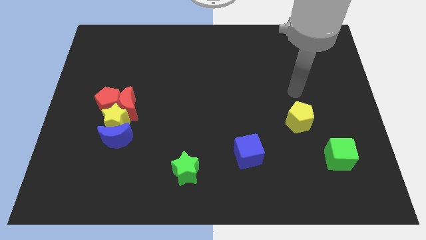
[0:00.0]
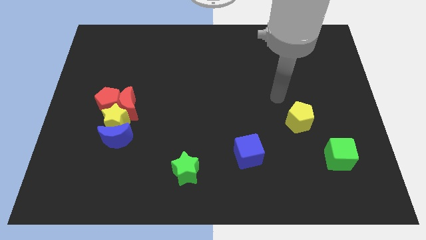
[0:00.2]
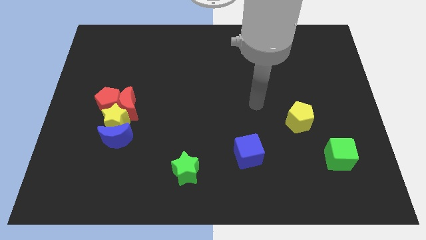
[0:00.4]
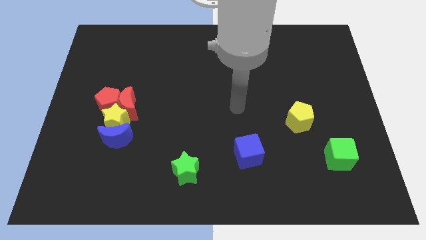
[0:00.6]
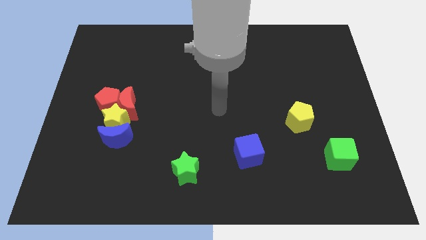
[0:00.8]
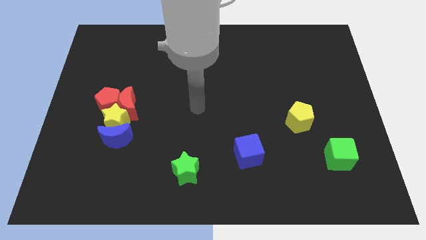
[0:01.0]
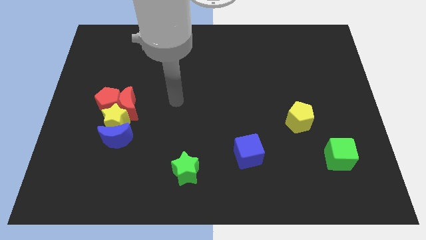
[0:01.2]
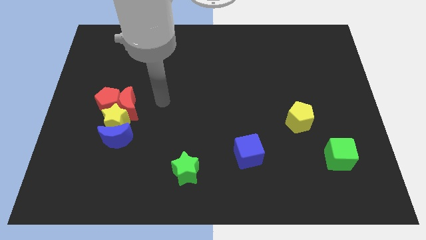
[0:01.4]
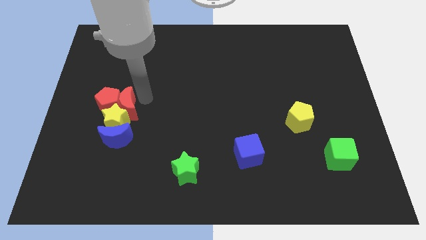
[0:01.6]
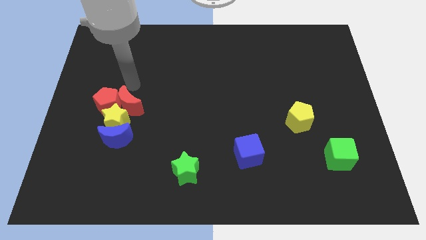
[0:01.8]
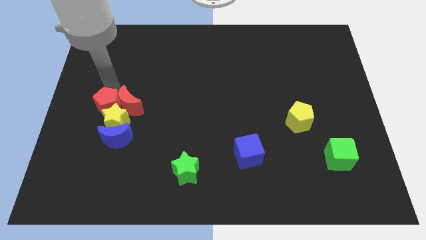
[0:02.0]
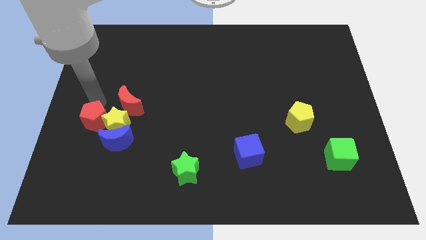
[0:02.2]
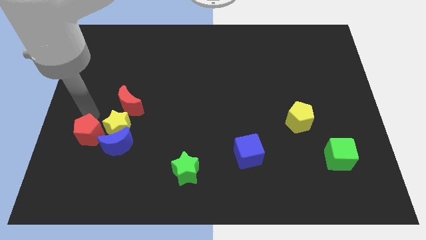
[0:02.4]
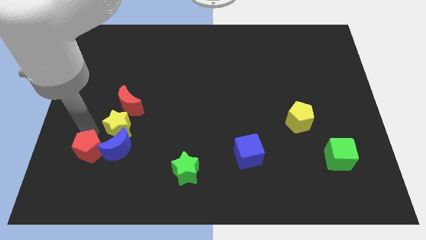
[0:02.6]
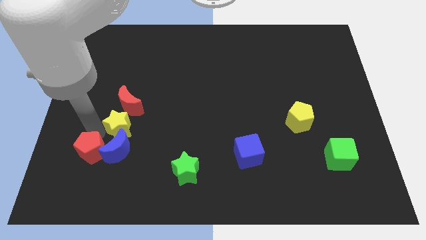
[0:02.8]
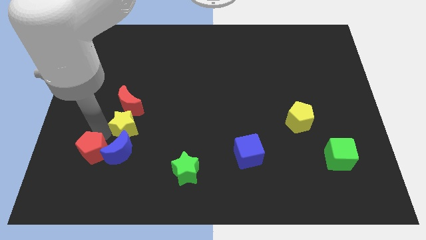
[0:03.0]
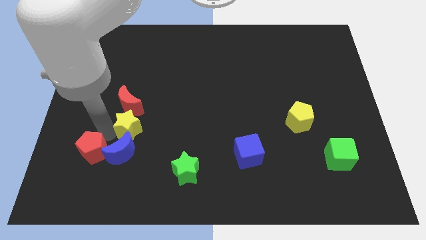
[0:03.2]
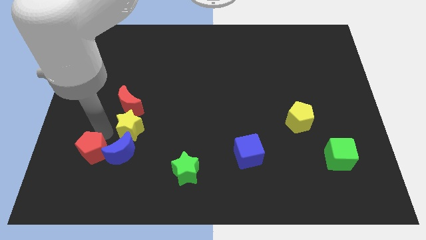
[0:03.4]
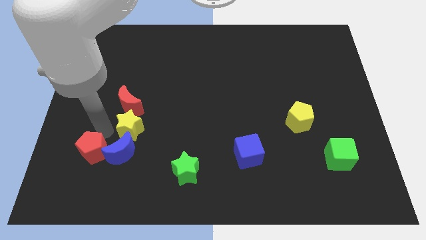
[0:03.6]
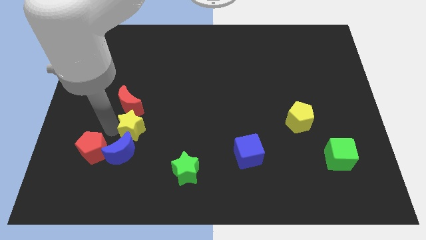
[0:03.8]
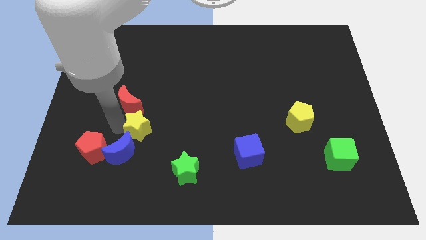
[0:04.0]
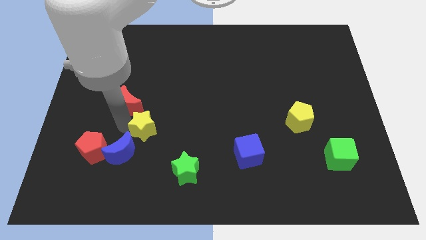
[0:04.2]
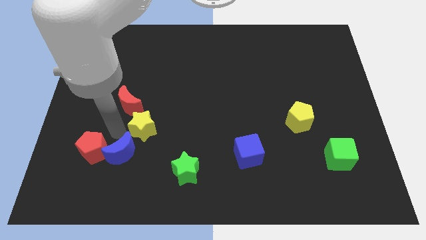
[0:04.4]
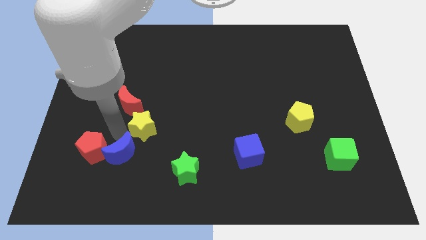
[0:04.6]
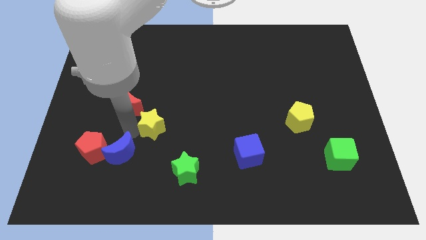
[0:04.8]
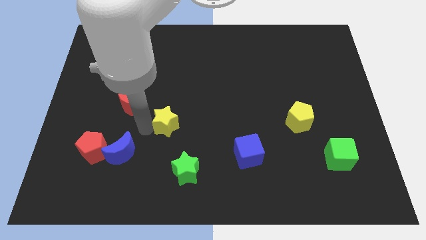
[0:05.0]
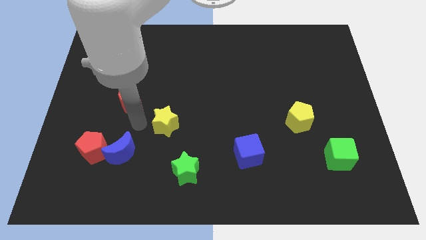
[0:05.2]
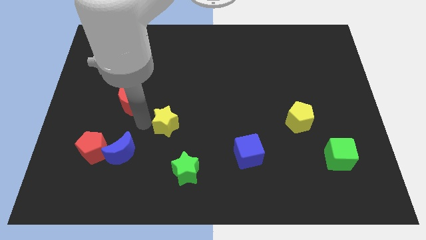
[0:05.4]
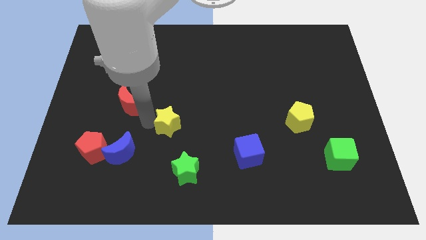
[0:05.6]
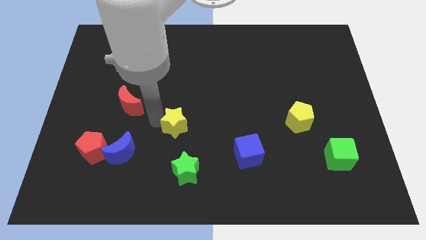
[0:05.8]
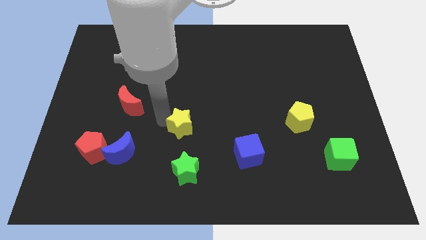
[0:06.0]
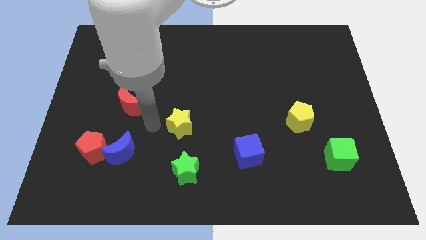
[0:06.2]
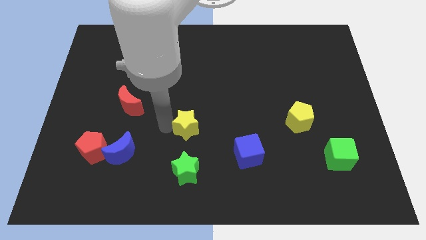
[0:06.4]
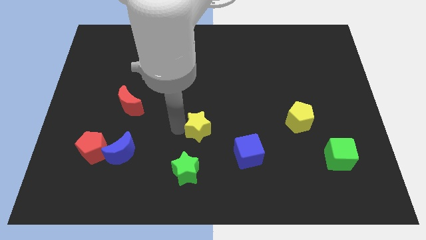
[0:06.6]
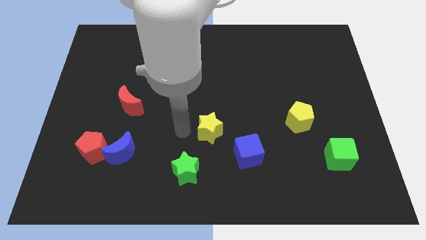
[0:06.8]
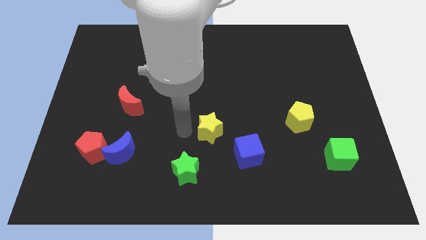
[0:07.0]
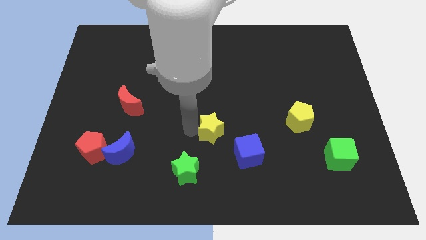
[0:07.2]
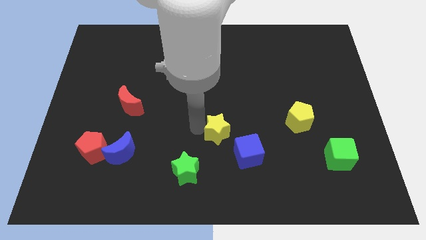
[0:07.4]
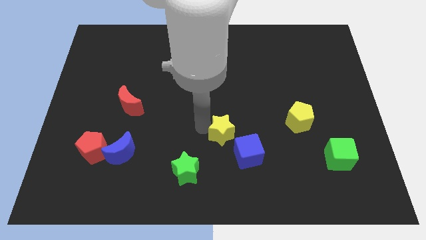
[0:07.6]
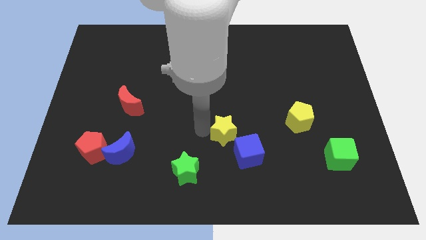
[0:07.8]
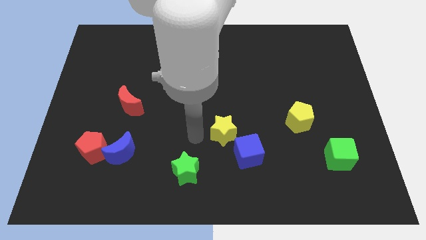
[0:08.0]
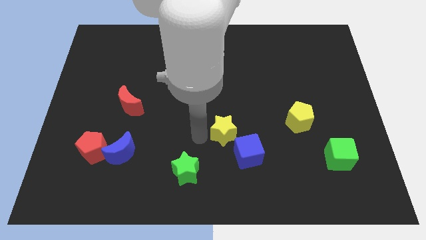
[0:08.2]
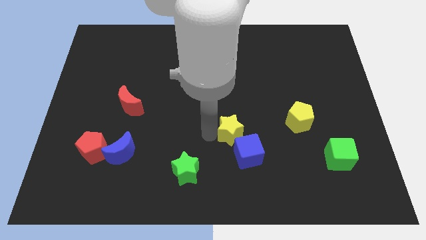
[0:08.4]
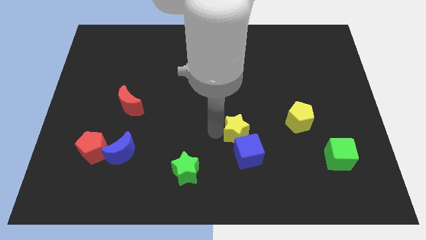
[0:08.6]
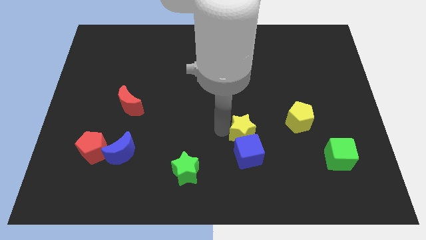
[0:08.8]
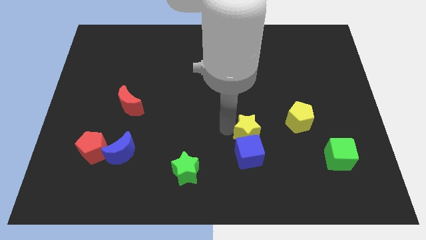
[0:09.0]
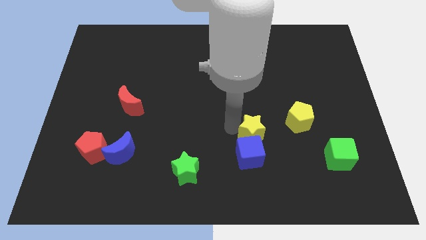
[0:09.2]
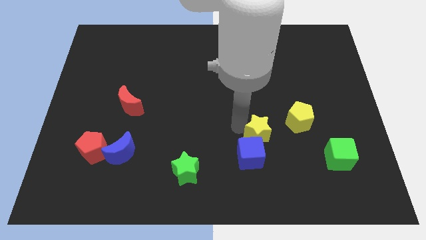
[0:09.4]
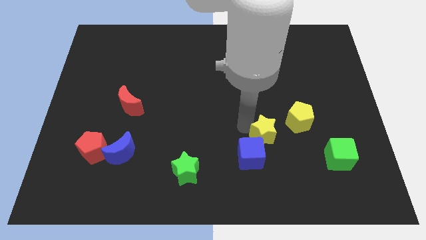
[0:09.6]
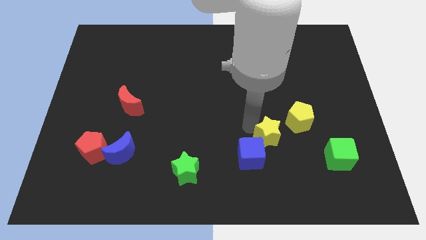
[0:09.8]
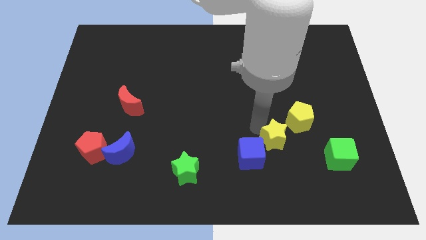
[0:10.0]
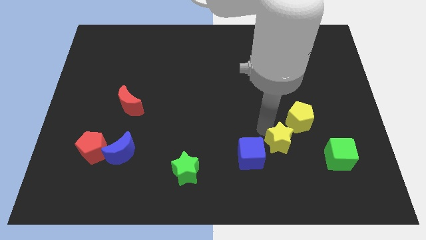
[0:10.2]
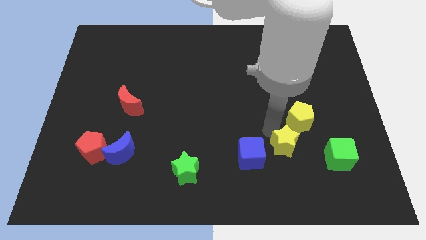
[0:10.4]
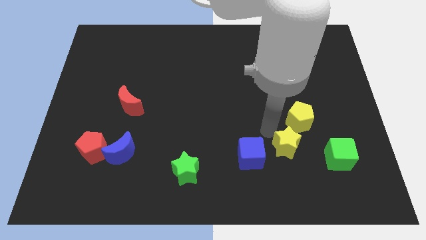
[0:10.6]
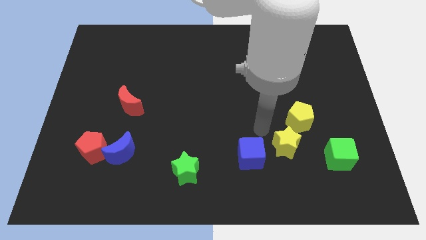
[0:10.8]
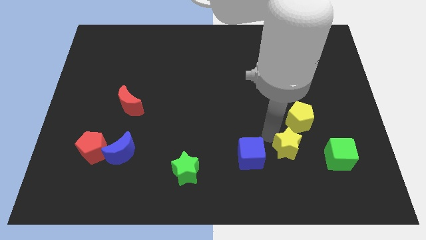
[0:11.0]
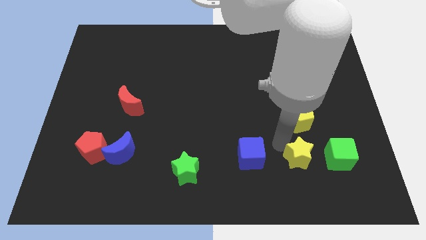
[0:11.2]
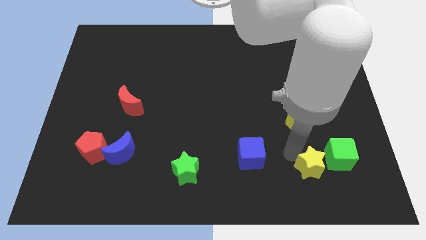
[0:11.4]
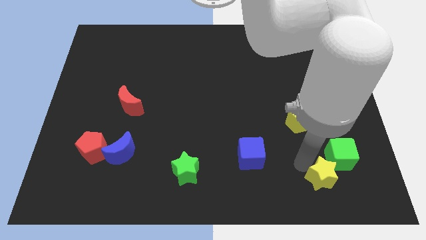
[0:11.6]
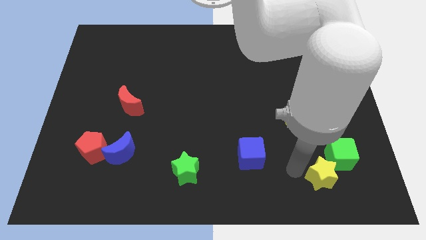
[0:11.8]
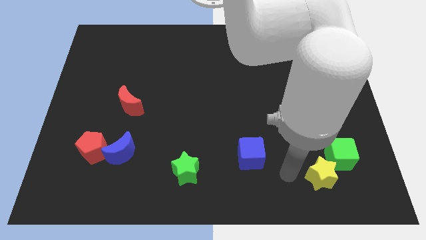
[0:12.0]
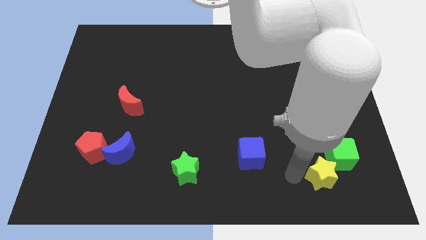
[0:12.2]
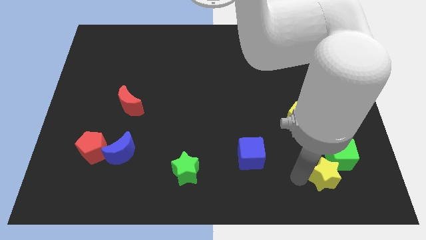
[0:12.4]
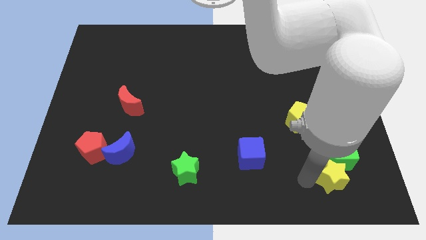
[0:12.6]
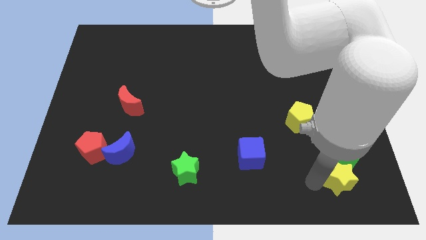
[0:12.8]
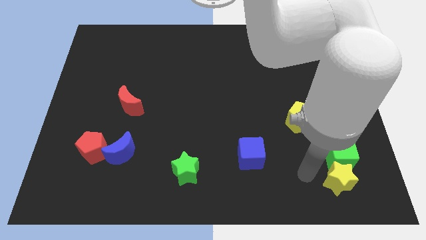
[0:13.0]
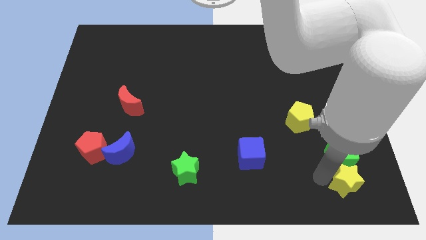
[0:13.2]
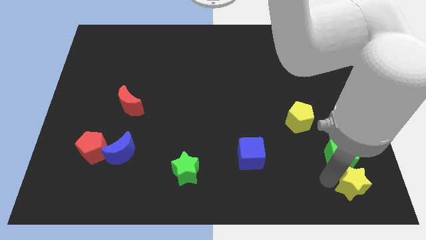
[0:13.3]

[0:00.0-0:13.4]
push the yellow star to the lower right corner

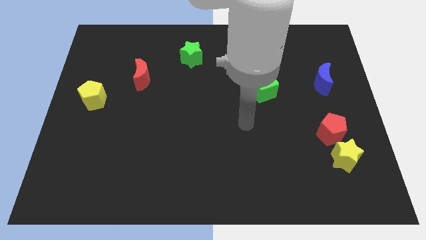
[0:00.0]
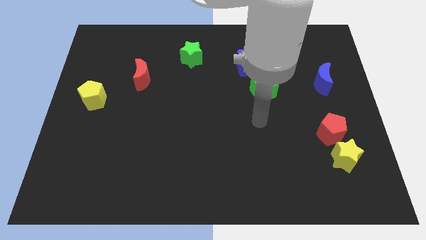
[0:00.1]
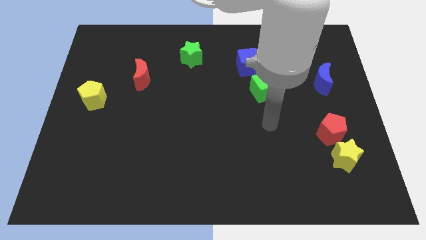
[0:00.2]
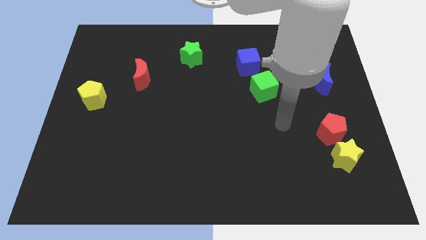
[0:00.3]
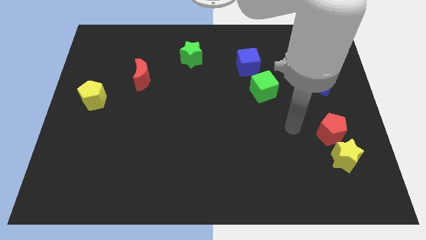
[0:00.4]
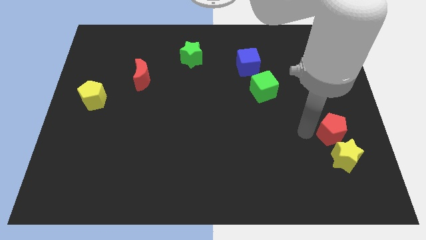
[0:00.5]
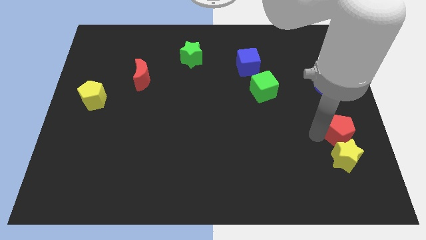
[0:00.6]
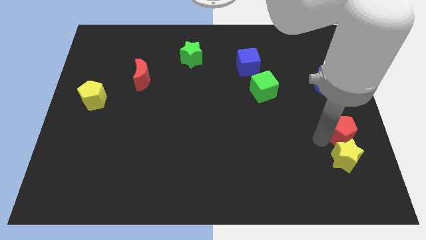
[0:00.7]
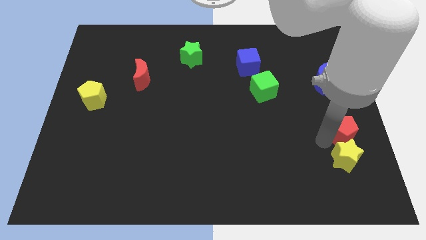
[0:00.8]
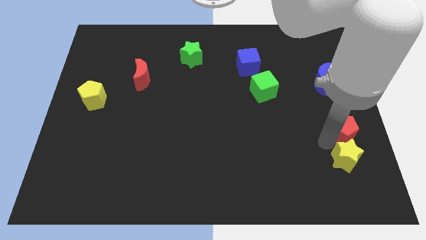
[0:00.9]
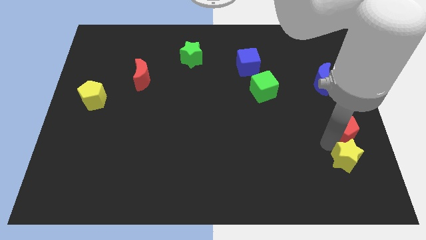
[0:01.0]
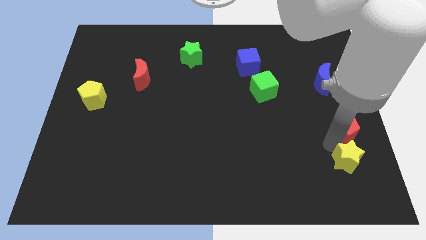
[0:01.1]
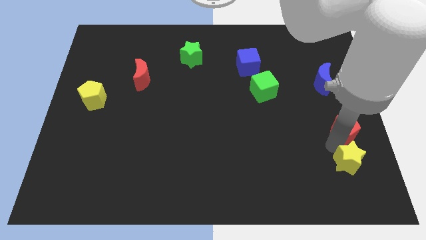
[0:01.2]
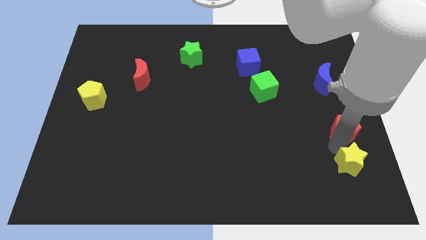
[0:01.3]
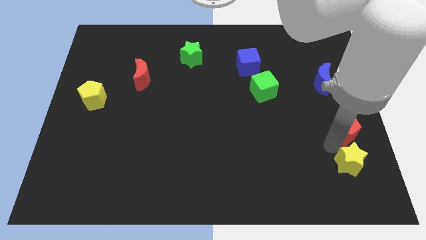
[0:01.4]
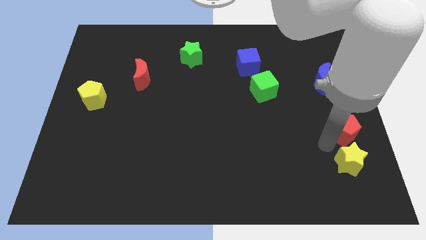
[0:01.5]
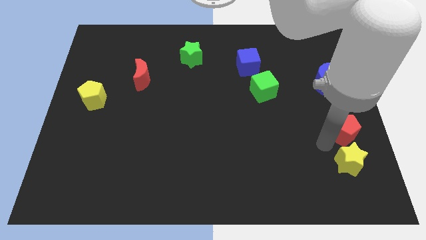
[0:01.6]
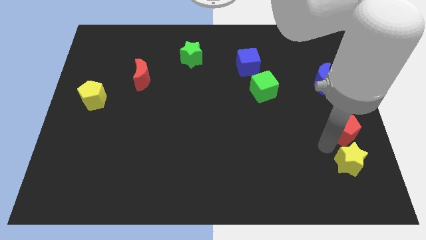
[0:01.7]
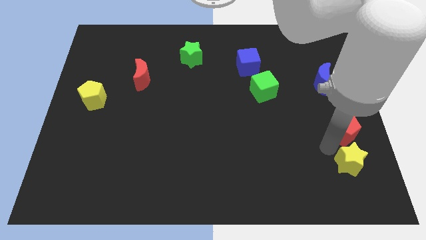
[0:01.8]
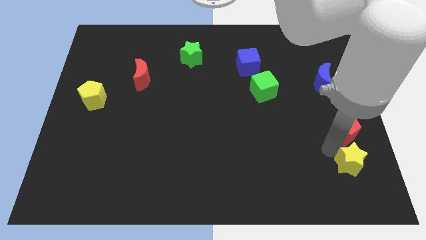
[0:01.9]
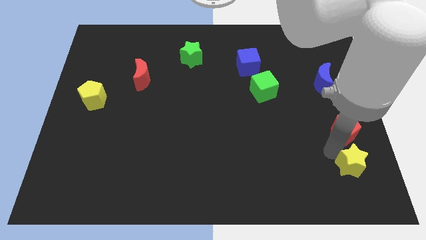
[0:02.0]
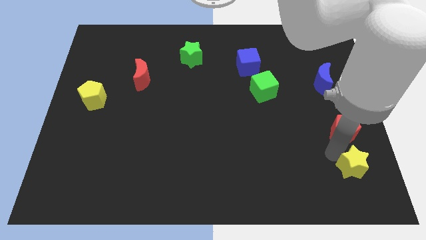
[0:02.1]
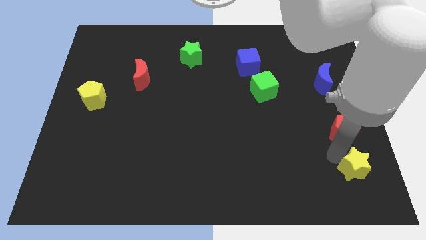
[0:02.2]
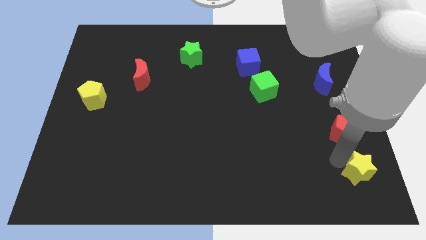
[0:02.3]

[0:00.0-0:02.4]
push the yellow star to the bottom right corner
